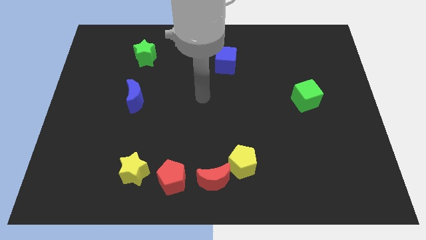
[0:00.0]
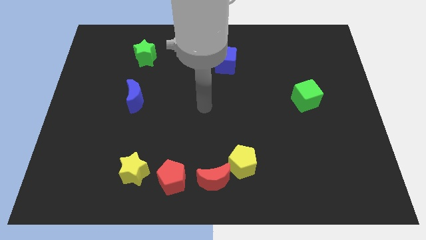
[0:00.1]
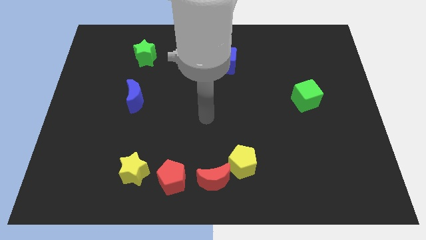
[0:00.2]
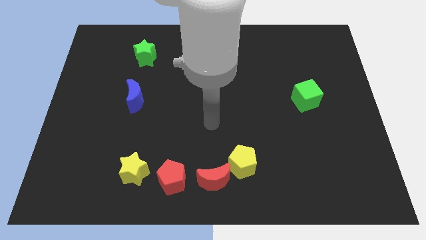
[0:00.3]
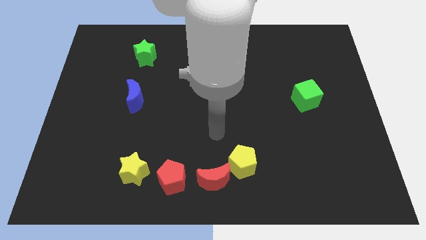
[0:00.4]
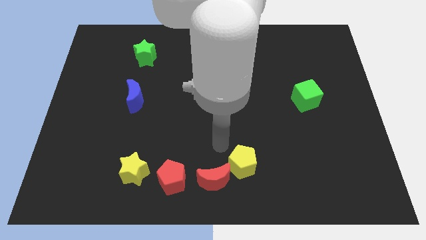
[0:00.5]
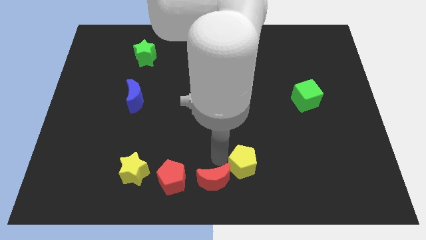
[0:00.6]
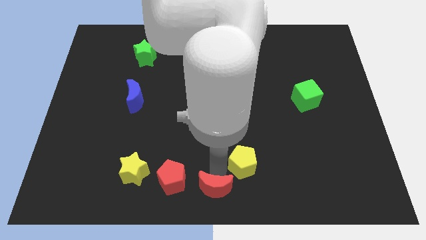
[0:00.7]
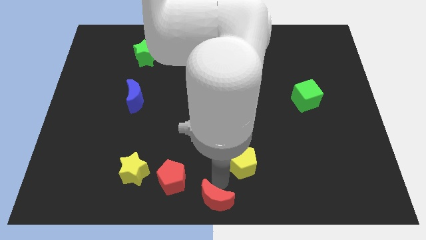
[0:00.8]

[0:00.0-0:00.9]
separate the yellow pentagon from the red moon

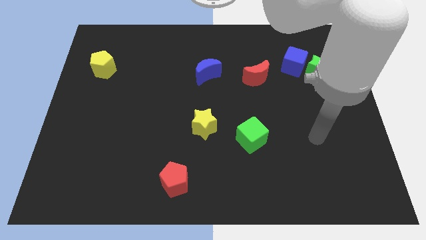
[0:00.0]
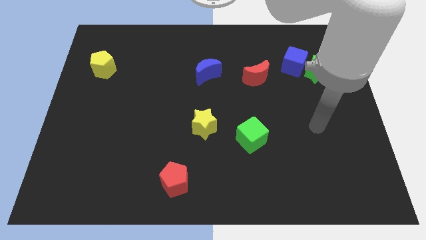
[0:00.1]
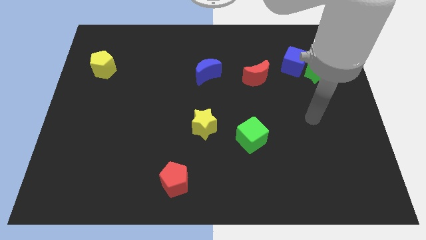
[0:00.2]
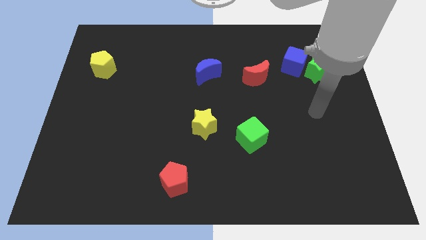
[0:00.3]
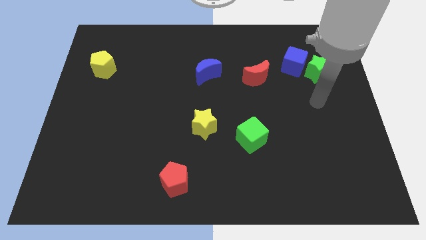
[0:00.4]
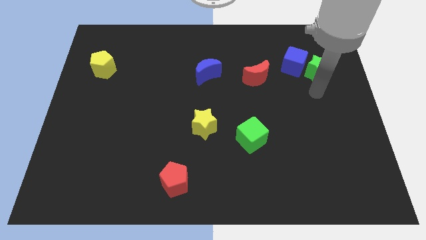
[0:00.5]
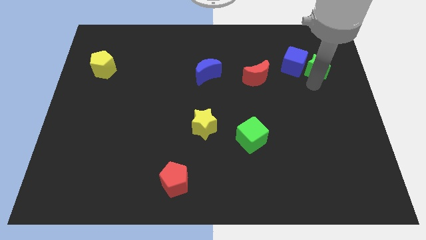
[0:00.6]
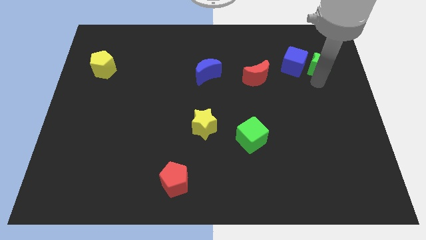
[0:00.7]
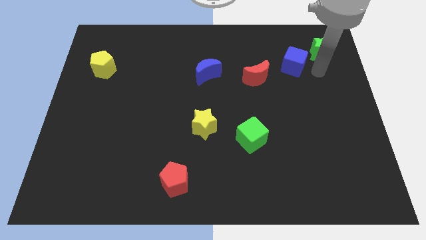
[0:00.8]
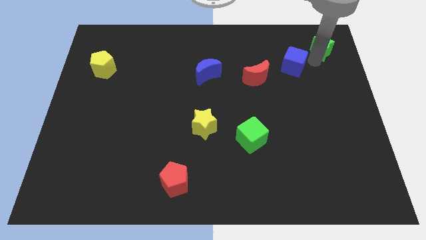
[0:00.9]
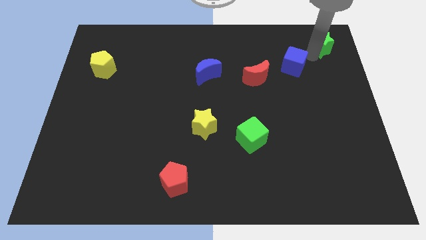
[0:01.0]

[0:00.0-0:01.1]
pull the blue cube apart from the green star

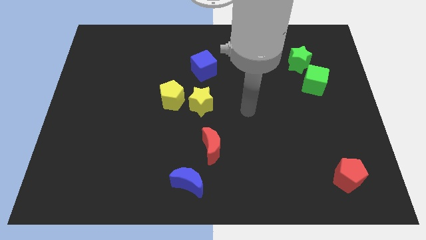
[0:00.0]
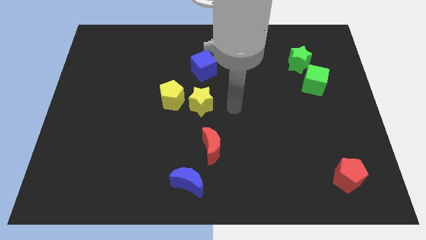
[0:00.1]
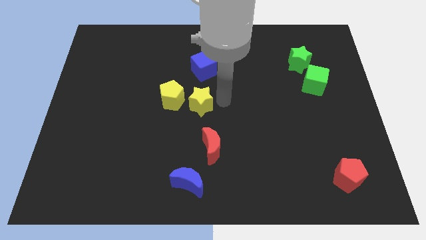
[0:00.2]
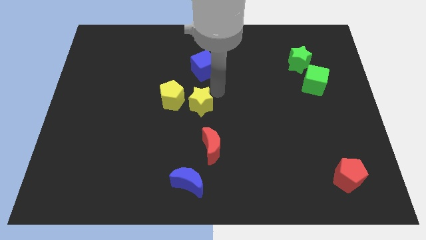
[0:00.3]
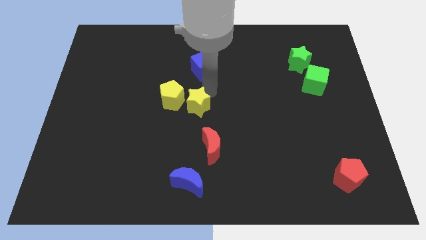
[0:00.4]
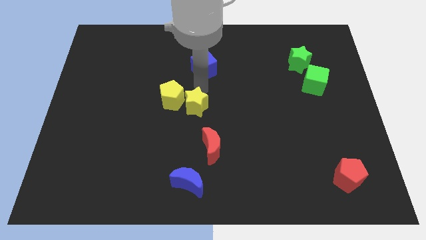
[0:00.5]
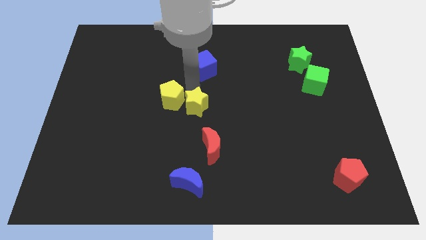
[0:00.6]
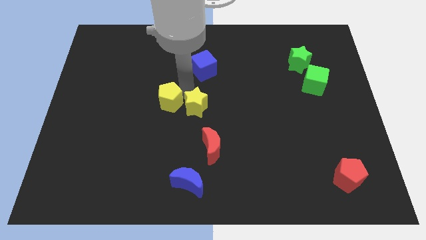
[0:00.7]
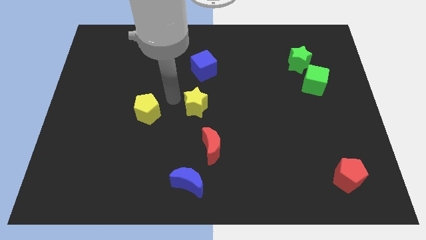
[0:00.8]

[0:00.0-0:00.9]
separate the yellow star from the yellow pentagon

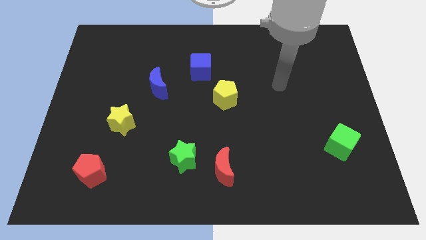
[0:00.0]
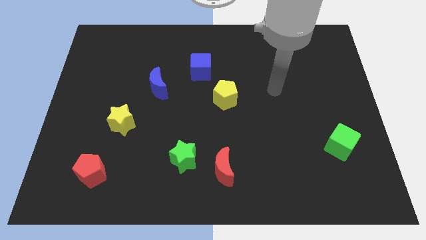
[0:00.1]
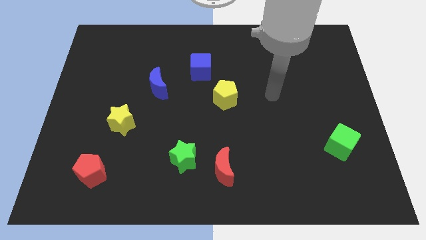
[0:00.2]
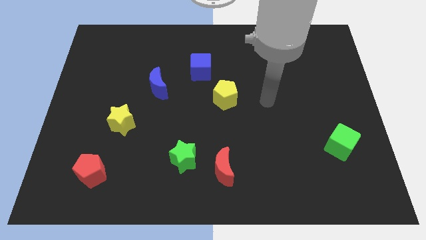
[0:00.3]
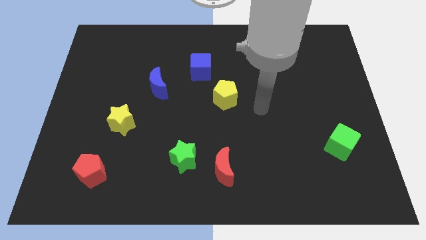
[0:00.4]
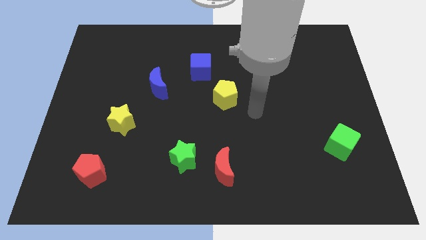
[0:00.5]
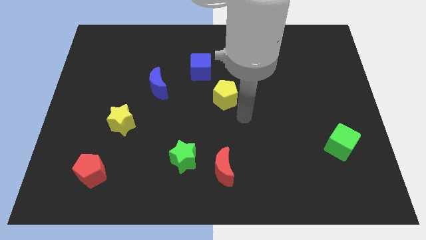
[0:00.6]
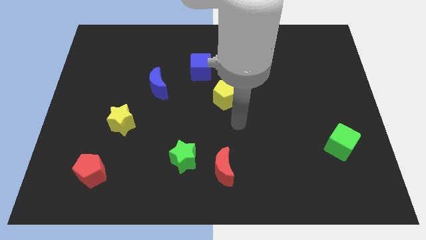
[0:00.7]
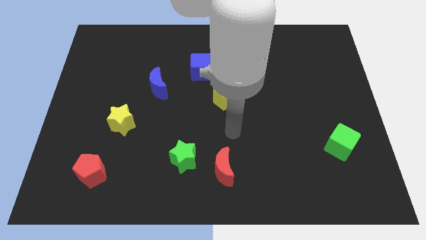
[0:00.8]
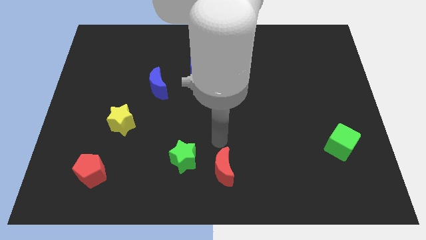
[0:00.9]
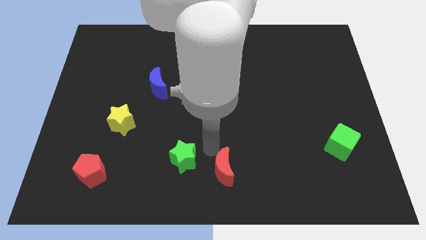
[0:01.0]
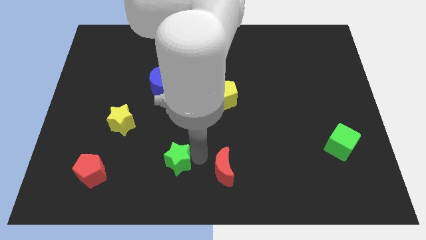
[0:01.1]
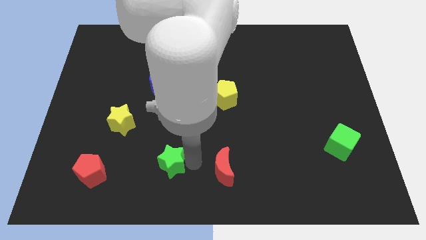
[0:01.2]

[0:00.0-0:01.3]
move the red moon away from the green star

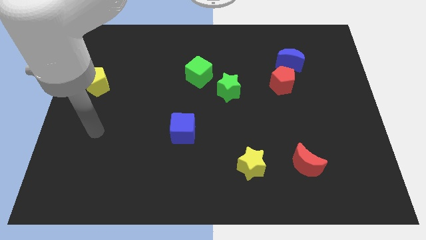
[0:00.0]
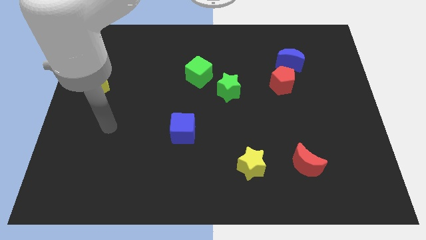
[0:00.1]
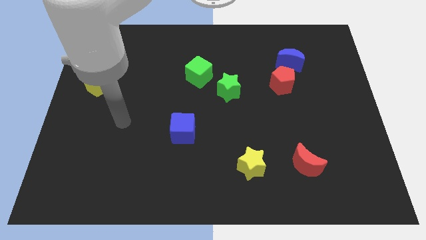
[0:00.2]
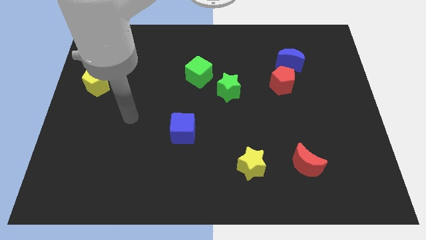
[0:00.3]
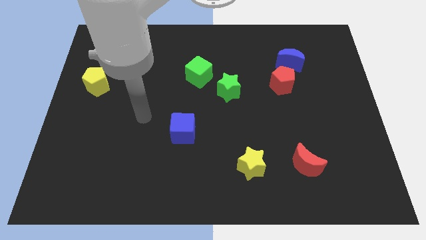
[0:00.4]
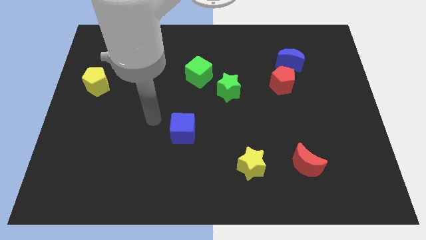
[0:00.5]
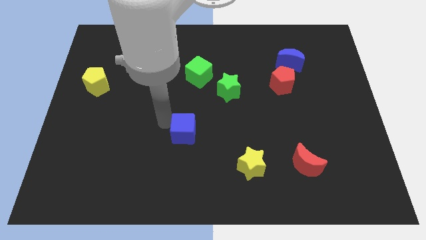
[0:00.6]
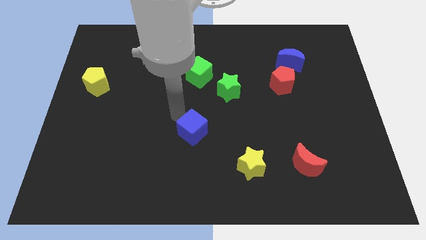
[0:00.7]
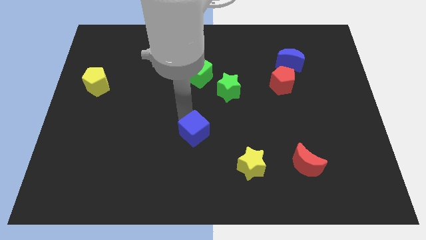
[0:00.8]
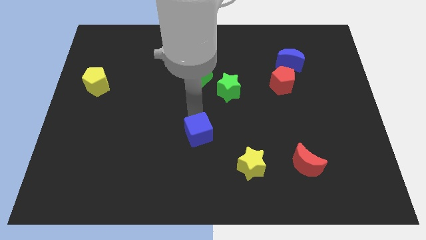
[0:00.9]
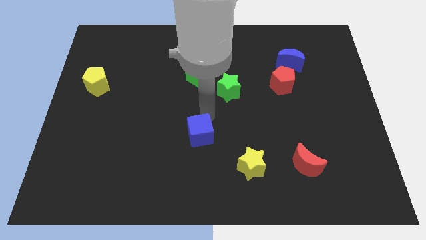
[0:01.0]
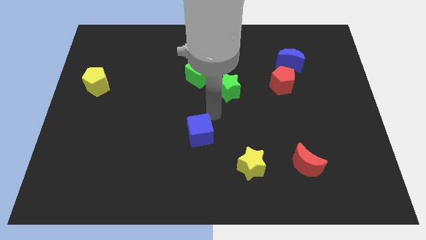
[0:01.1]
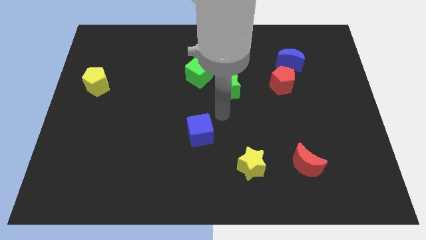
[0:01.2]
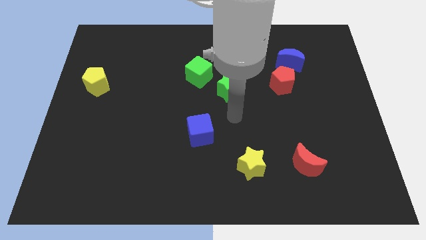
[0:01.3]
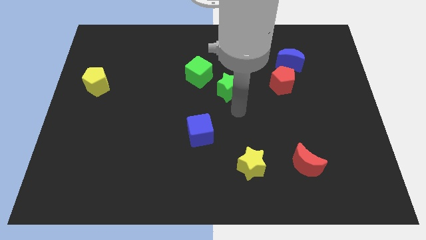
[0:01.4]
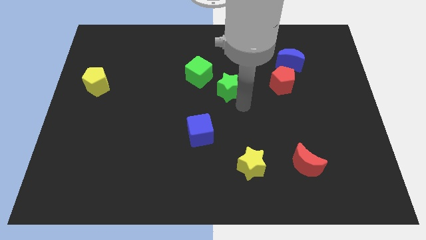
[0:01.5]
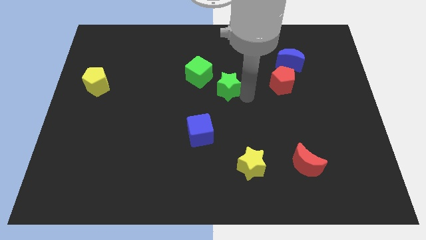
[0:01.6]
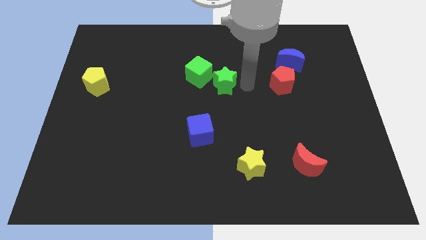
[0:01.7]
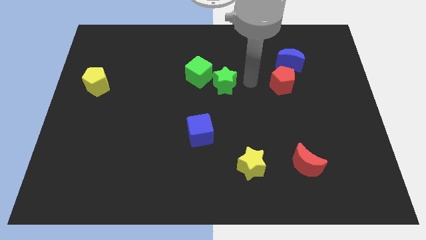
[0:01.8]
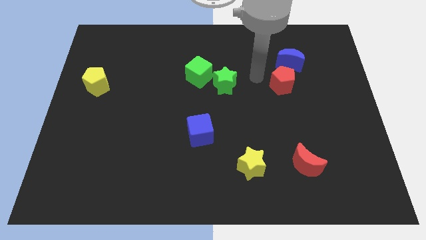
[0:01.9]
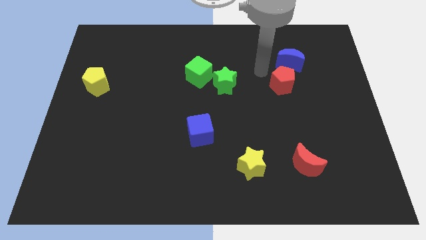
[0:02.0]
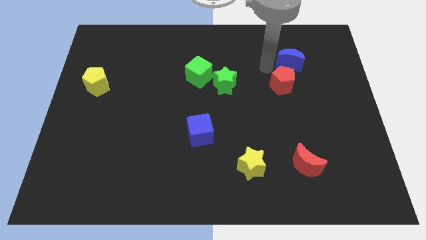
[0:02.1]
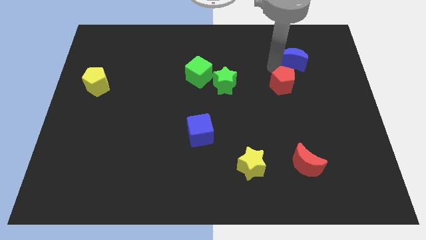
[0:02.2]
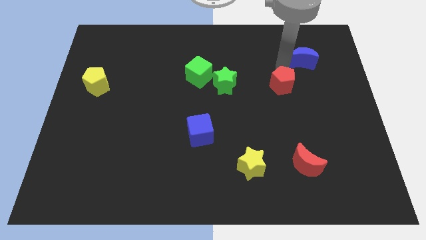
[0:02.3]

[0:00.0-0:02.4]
separate the red pentagon from the blue moon

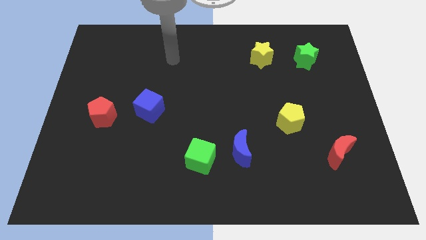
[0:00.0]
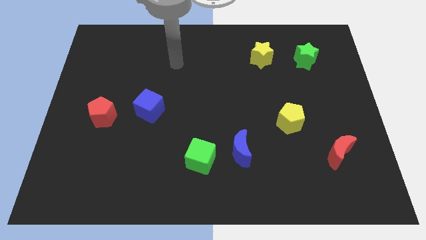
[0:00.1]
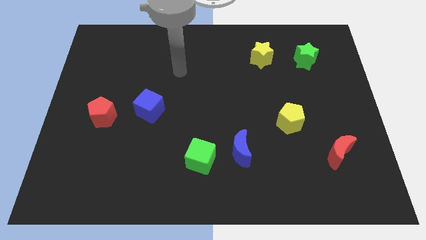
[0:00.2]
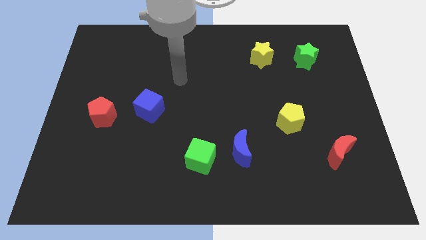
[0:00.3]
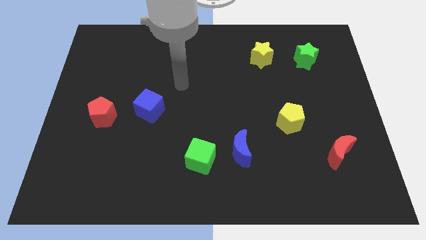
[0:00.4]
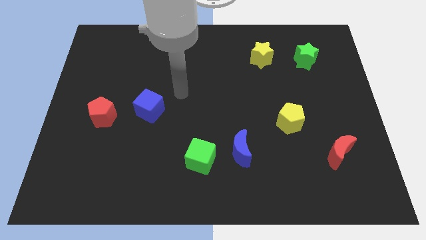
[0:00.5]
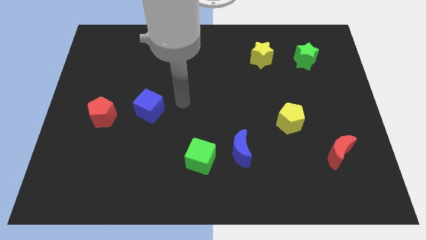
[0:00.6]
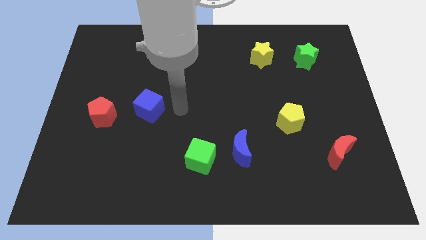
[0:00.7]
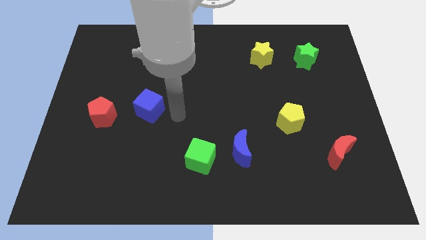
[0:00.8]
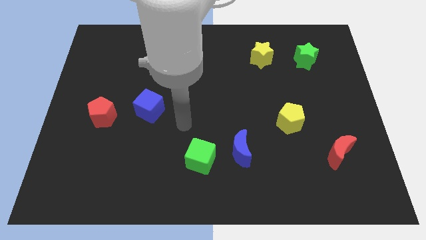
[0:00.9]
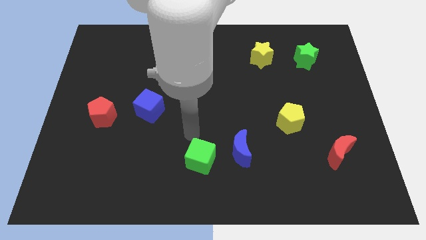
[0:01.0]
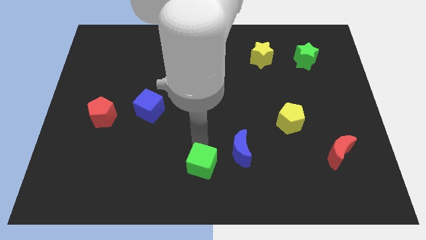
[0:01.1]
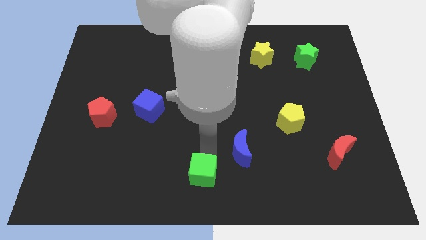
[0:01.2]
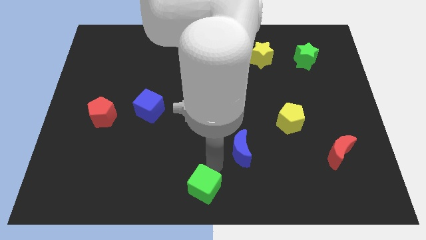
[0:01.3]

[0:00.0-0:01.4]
pull the blue moon apart from the green cube

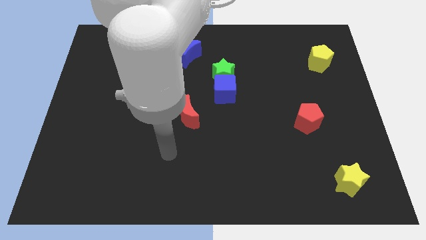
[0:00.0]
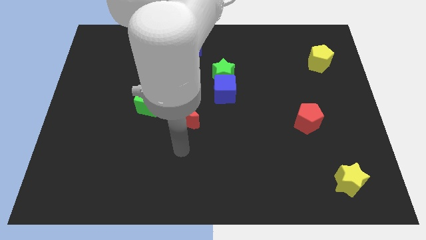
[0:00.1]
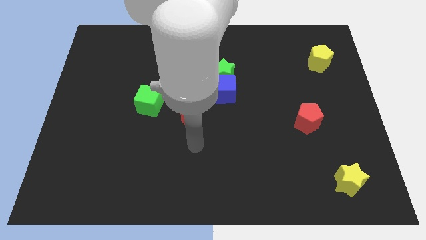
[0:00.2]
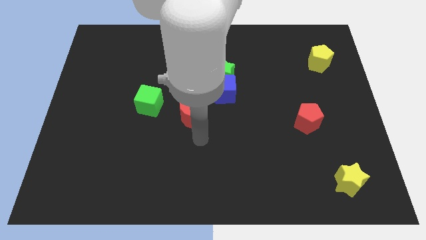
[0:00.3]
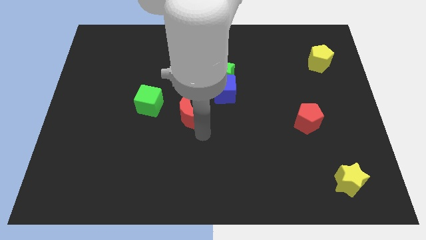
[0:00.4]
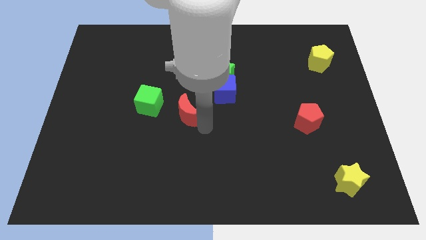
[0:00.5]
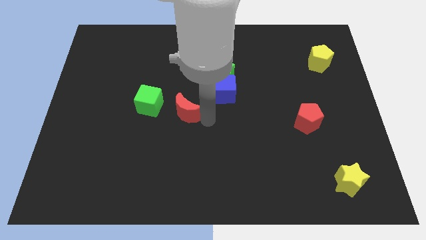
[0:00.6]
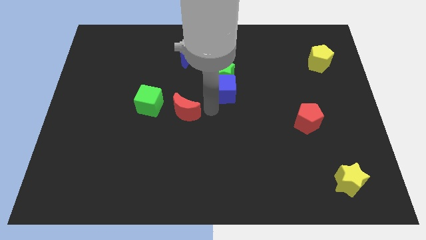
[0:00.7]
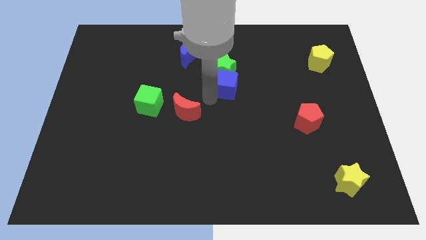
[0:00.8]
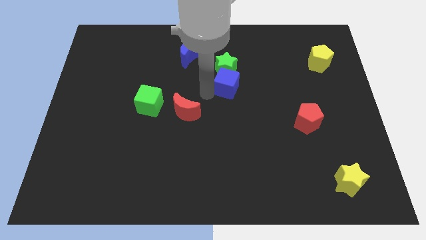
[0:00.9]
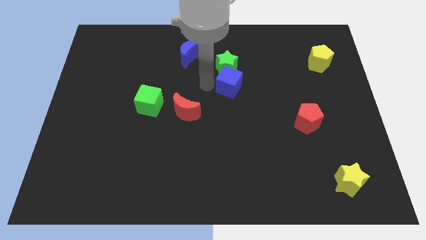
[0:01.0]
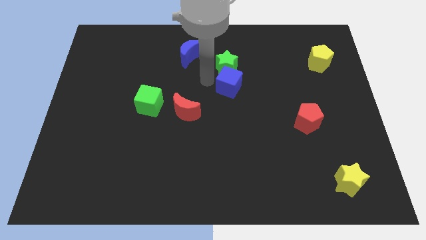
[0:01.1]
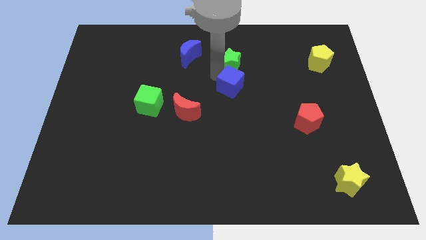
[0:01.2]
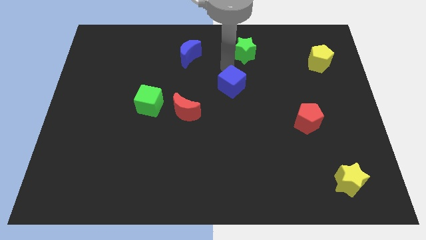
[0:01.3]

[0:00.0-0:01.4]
separate the blue cube from the green star
